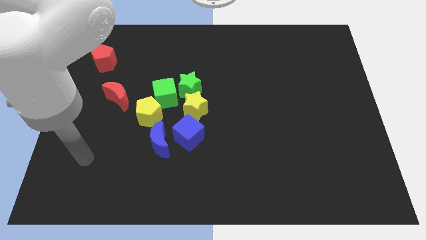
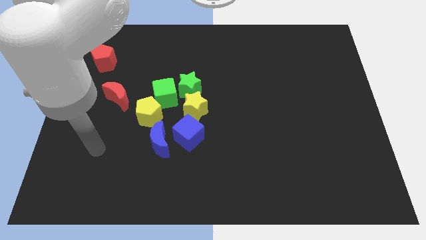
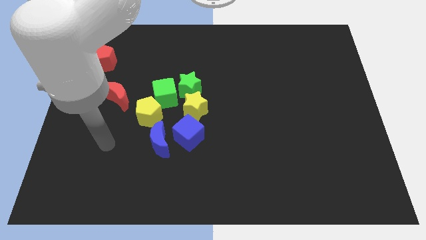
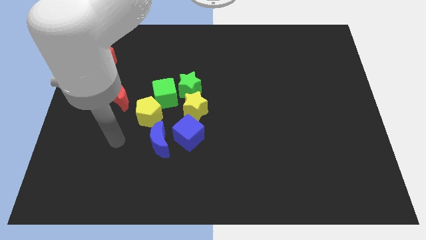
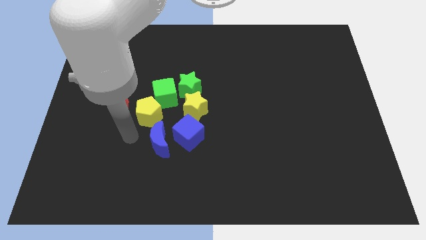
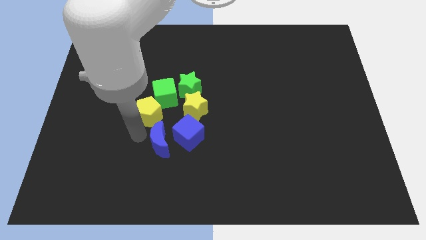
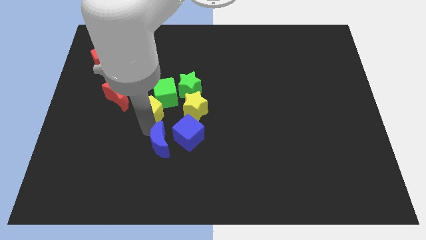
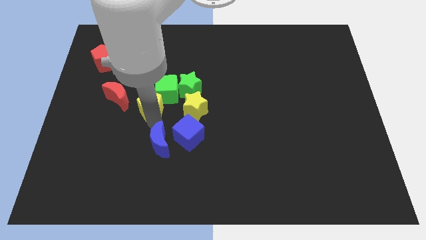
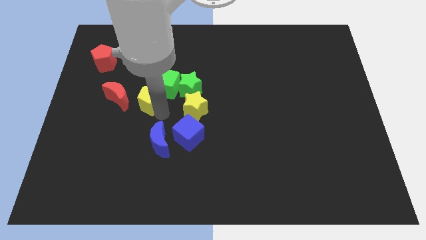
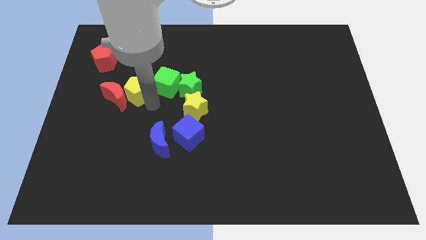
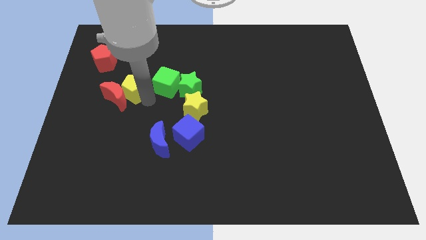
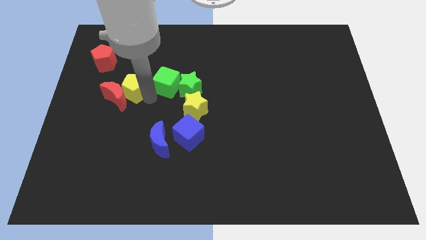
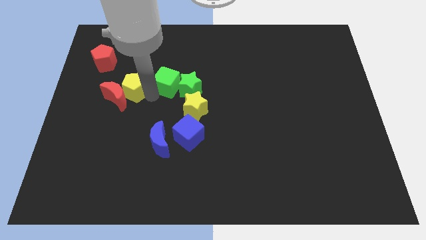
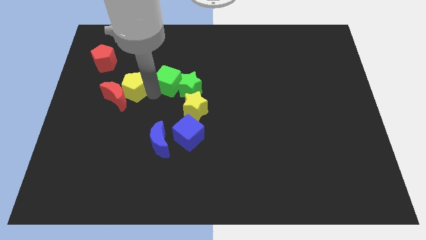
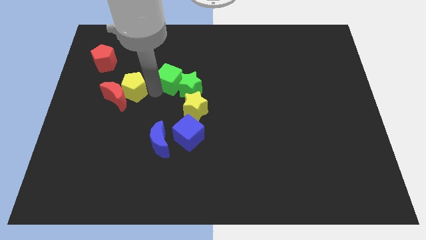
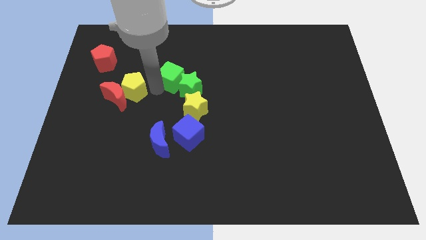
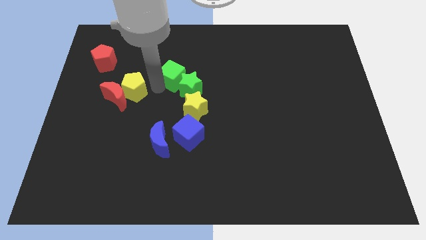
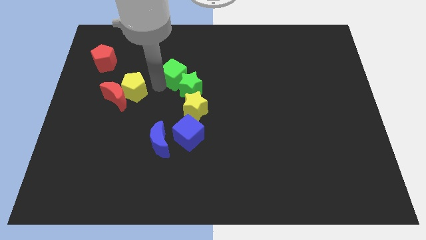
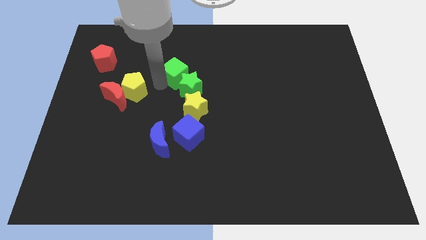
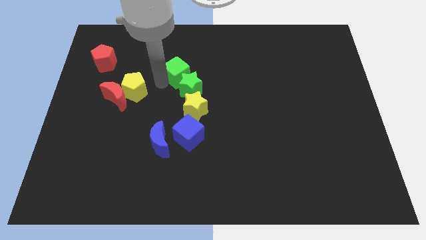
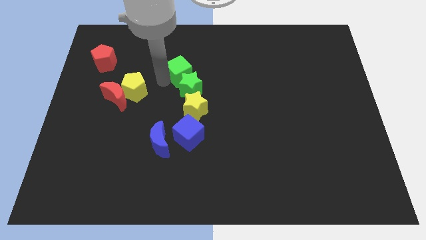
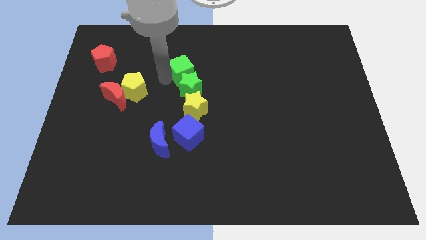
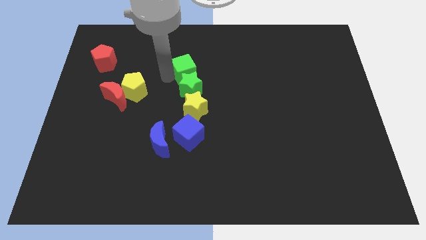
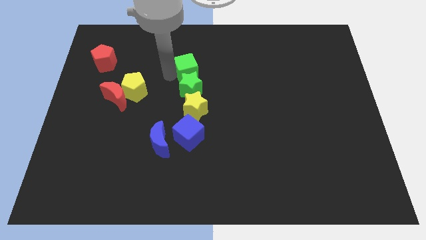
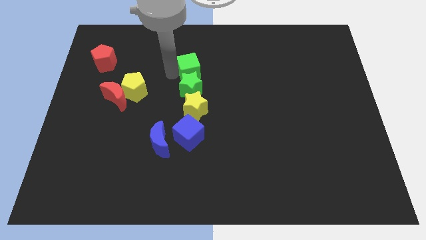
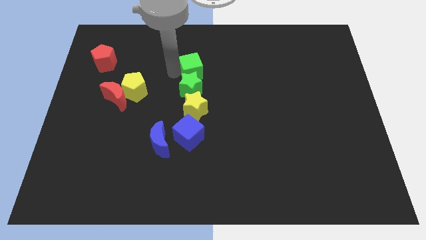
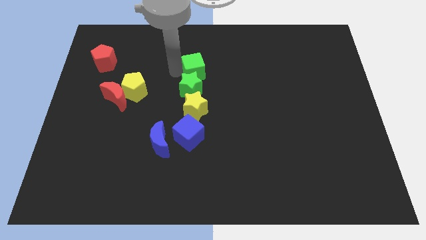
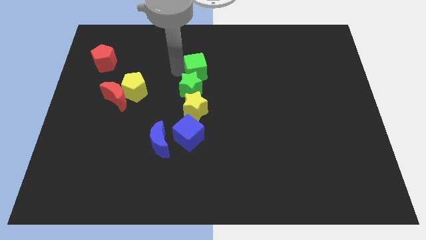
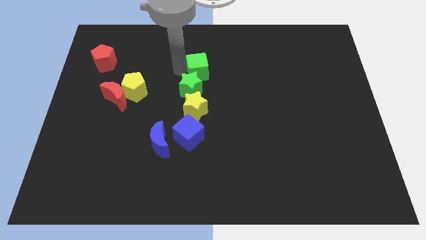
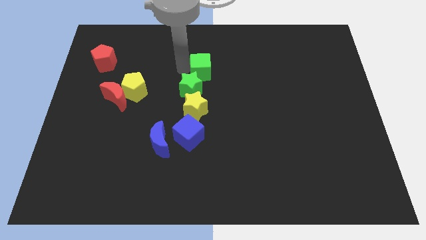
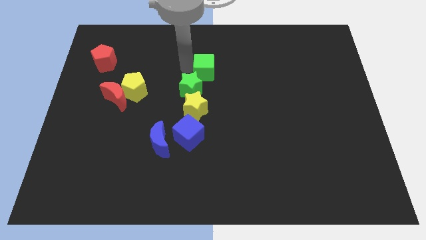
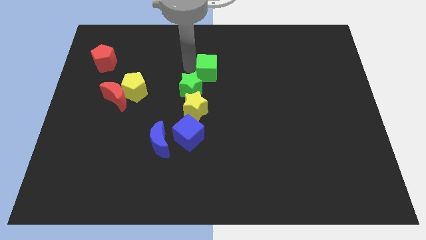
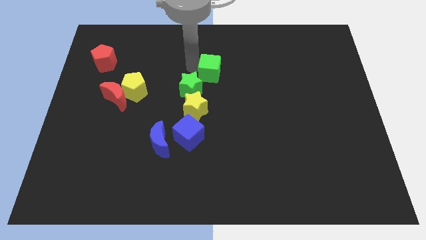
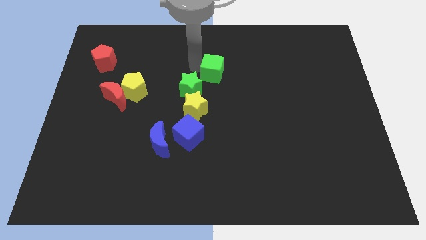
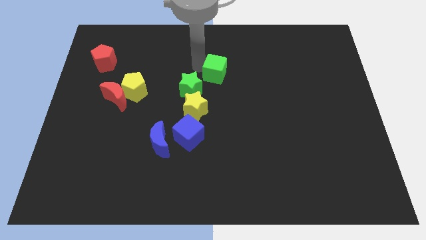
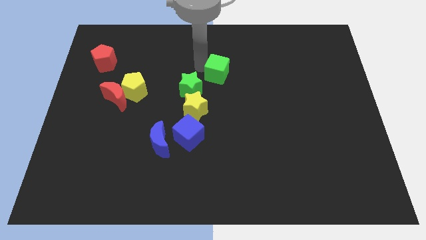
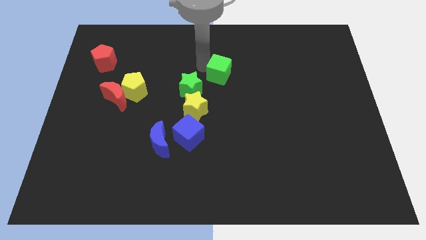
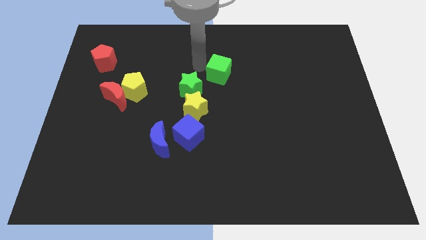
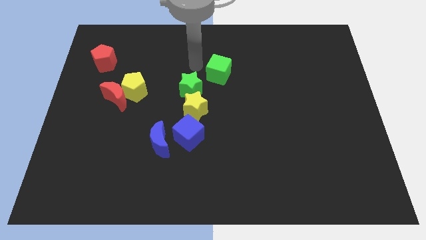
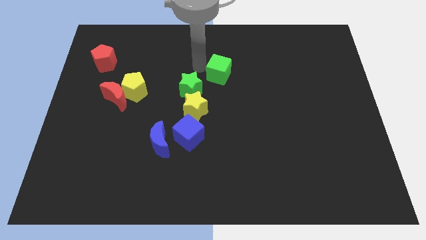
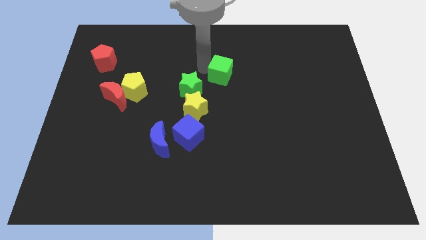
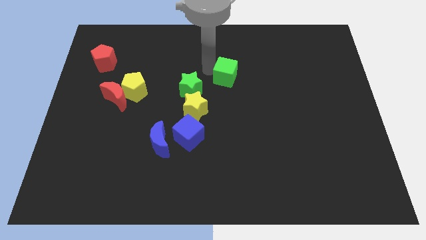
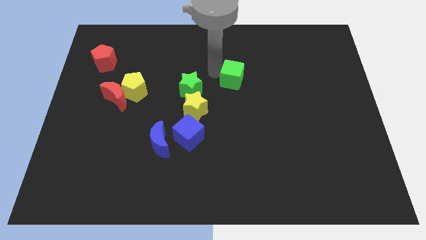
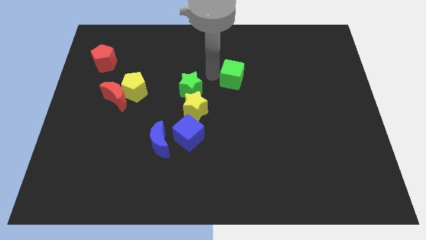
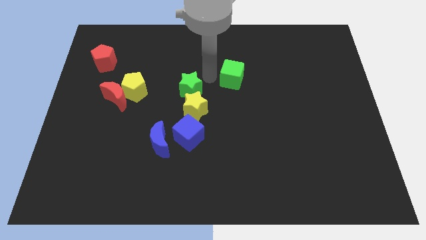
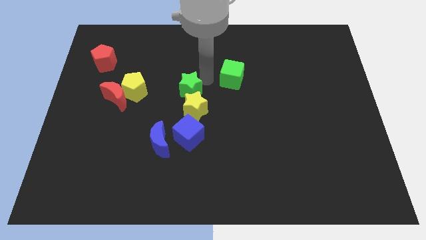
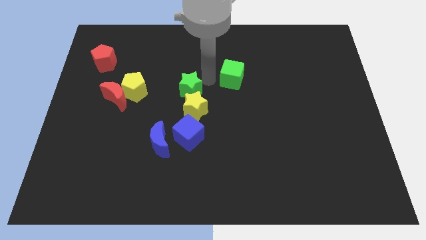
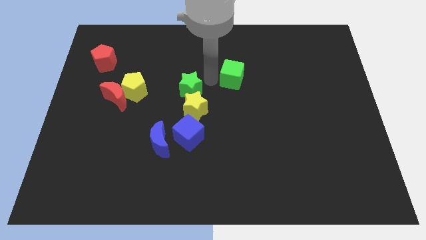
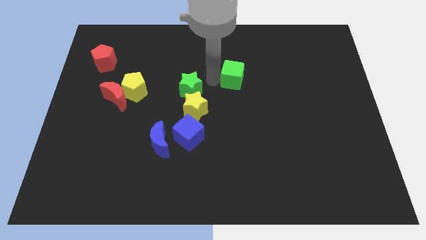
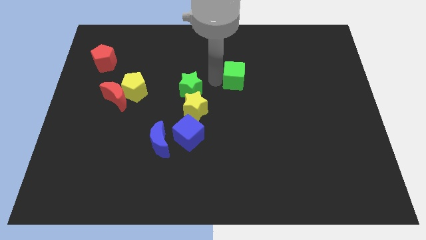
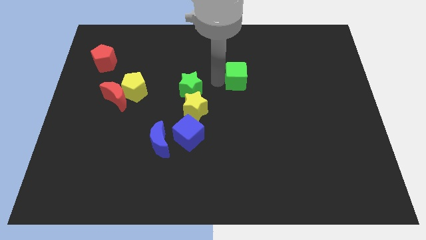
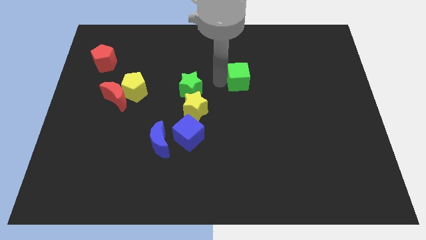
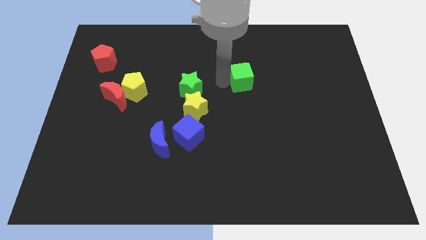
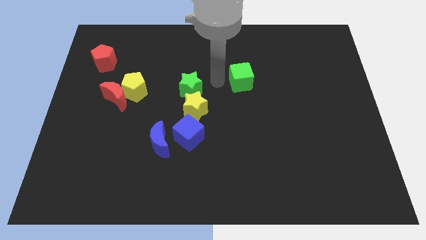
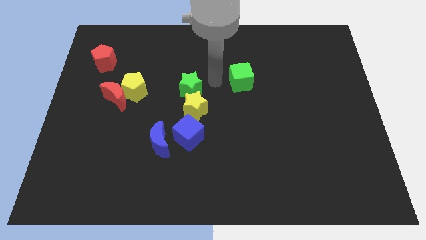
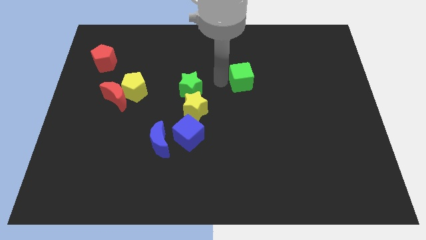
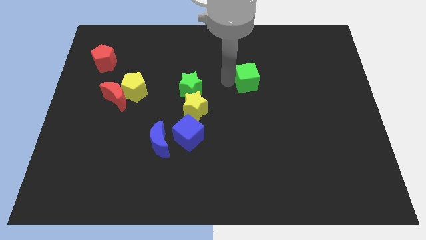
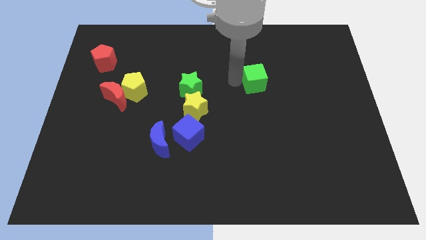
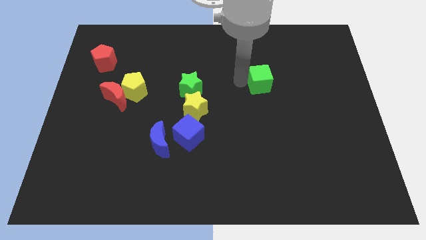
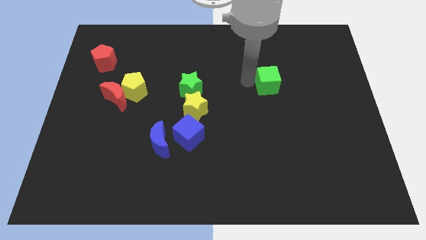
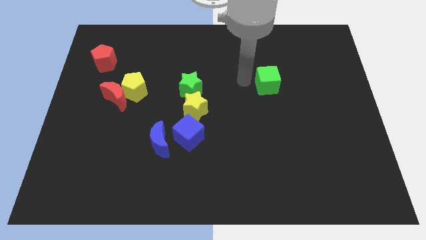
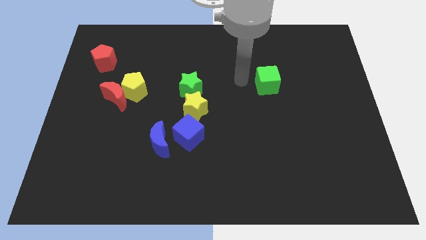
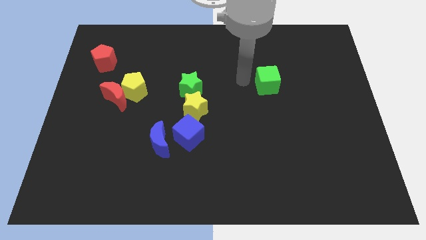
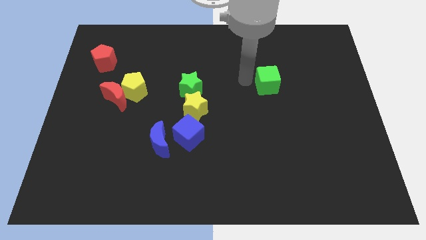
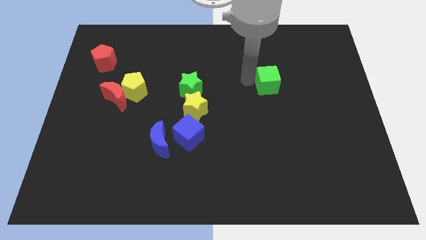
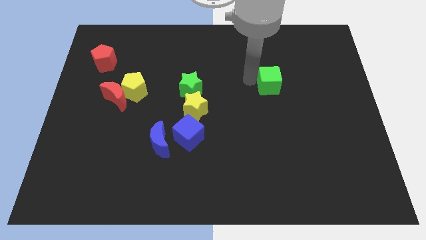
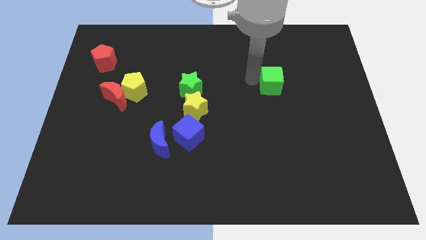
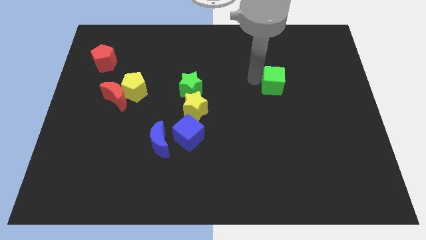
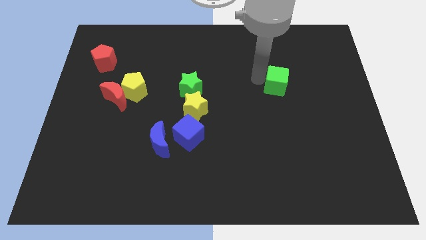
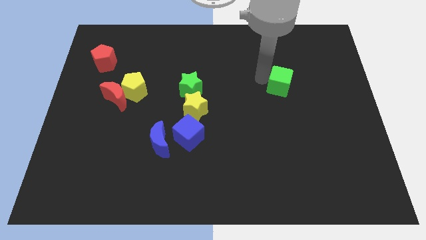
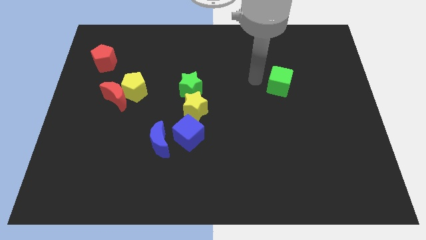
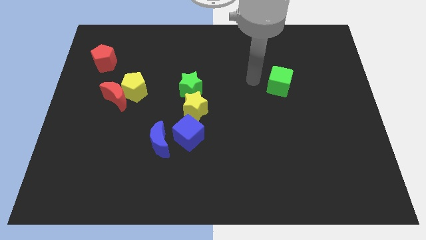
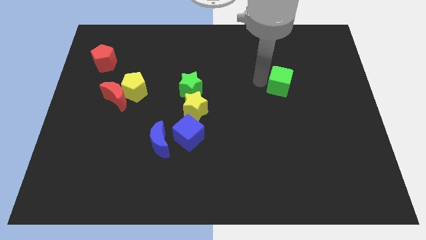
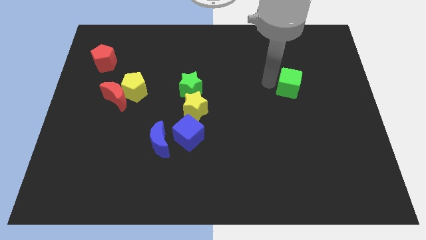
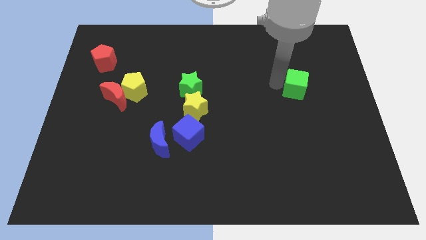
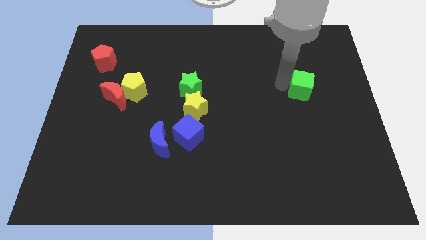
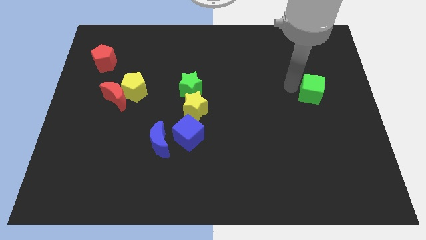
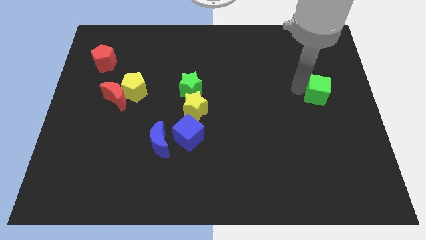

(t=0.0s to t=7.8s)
move the green cube to the right side
